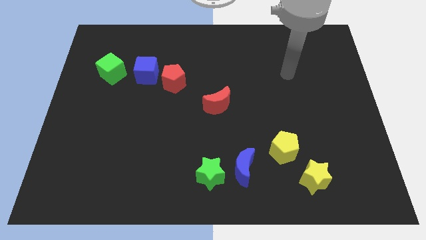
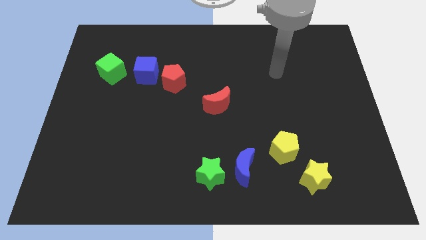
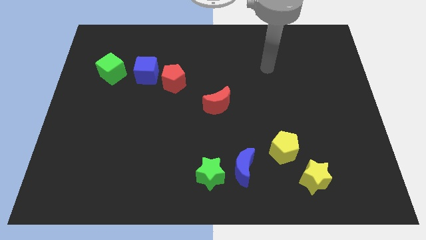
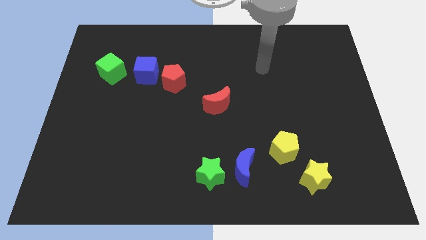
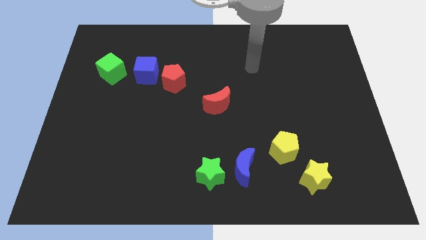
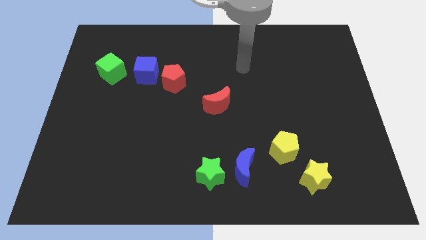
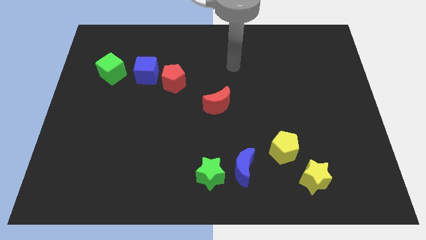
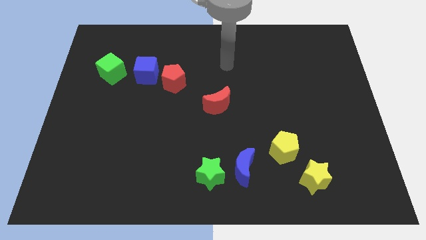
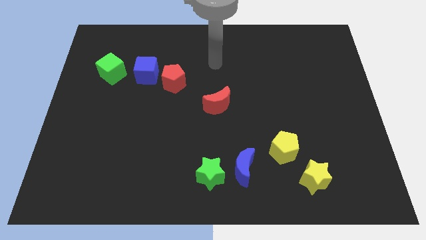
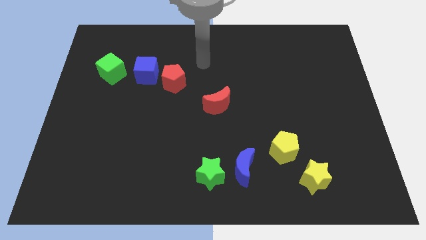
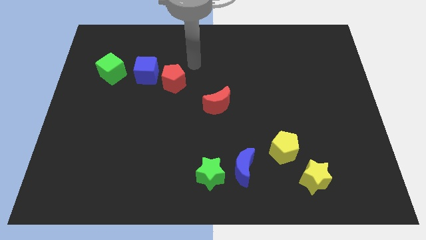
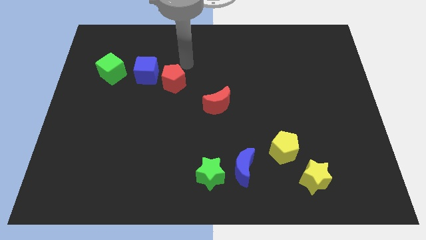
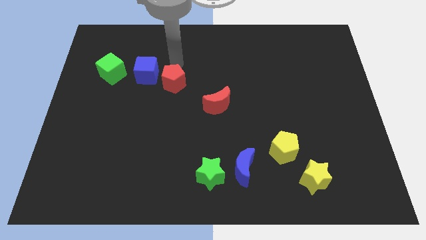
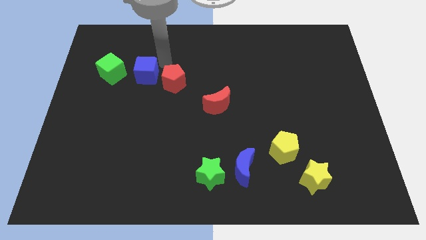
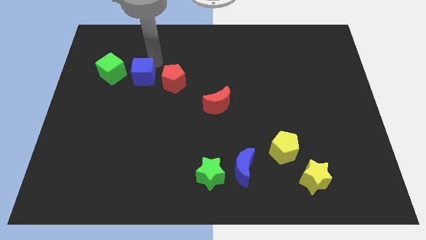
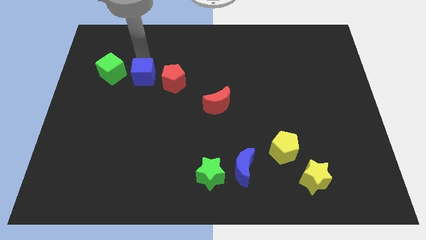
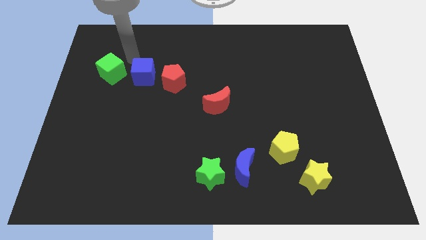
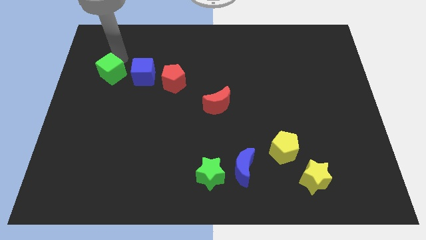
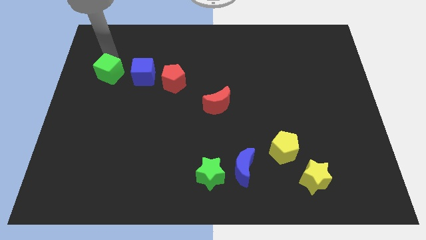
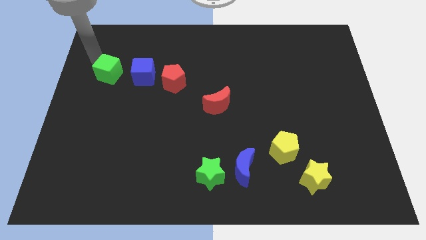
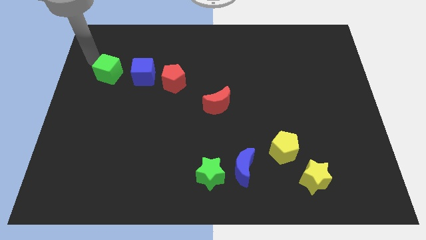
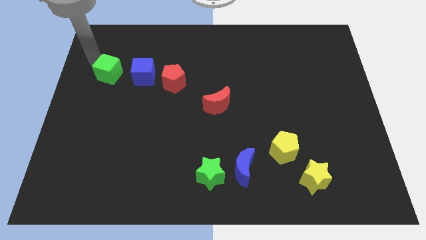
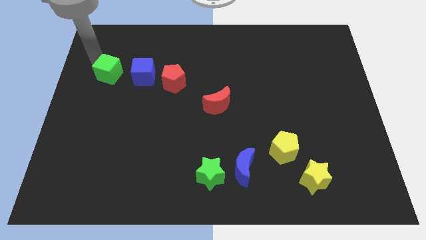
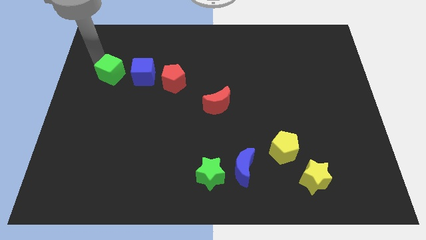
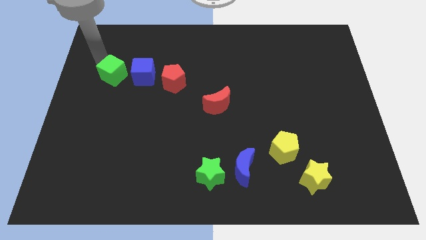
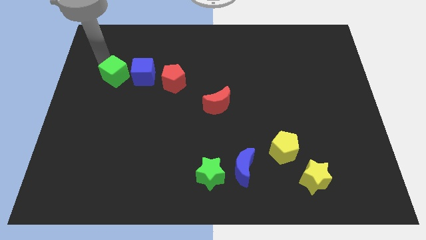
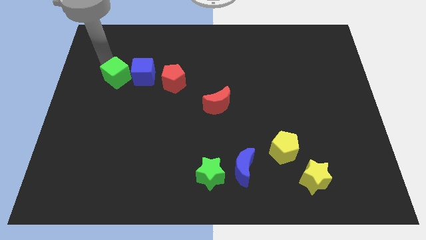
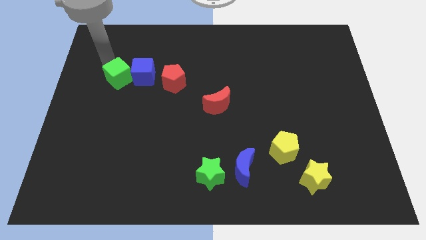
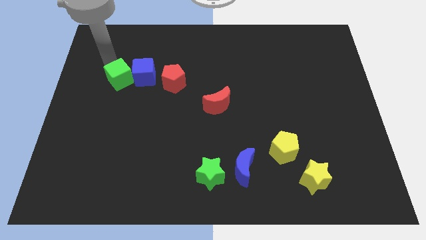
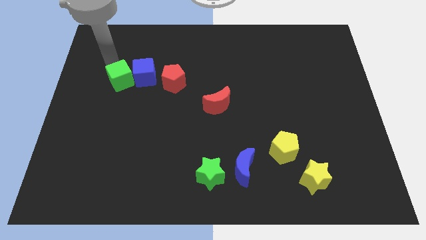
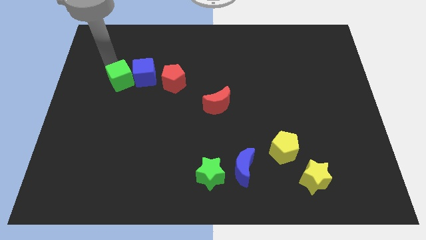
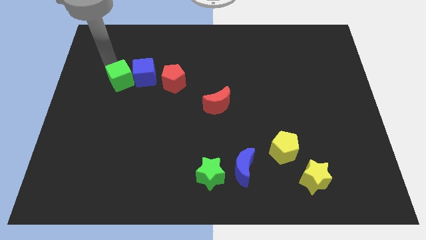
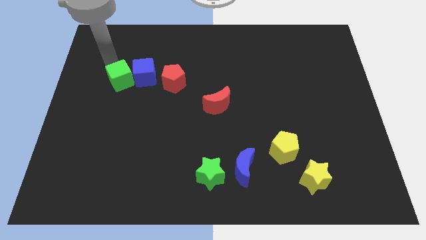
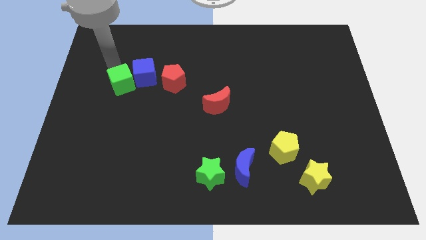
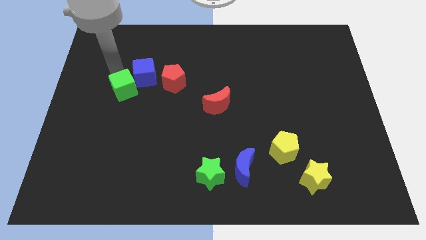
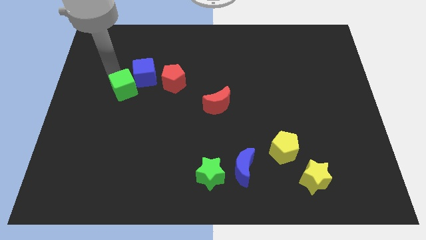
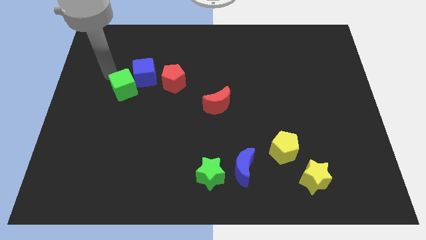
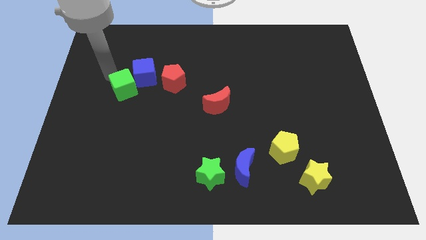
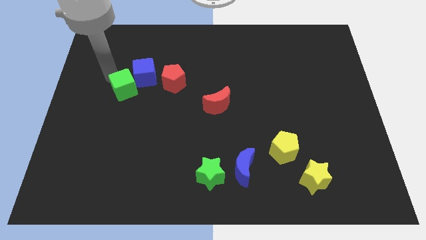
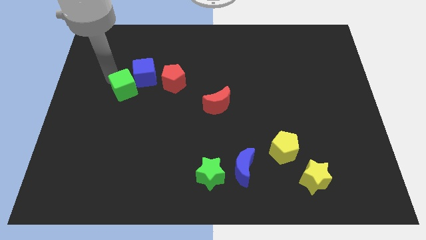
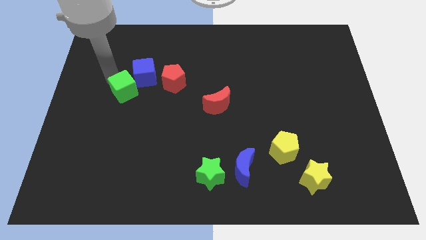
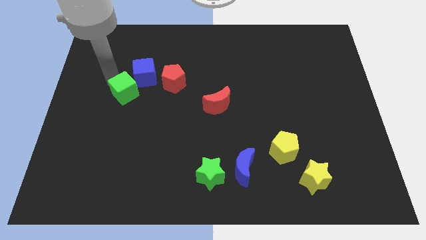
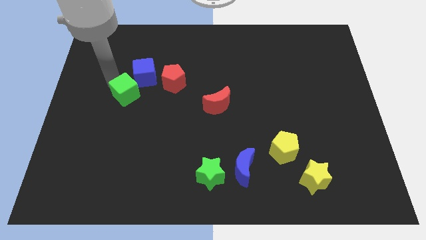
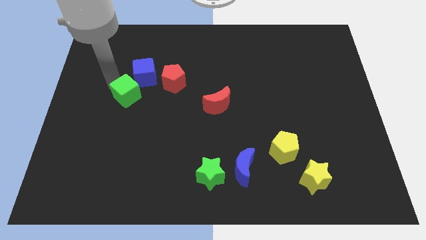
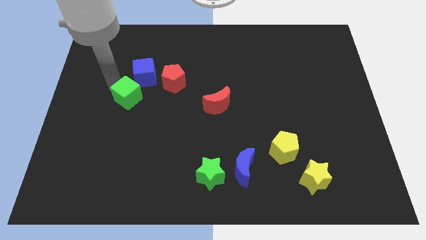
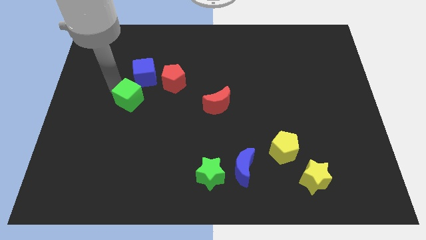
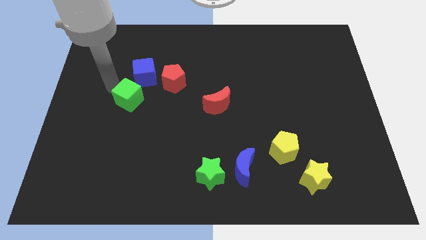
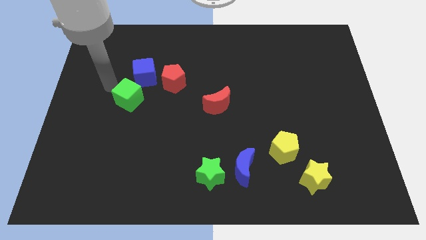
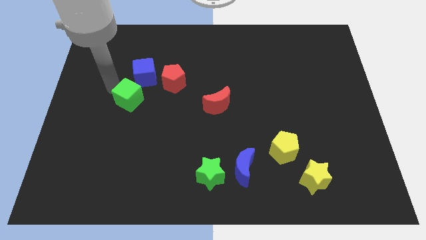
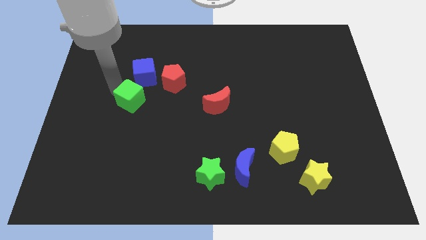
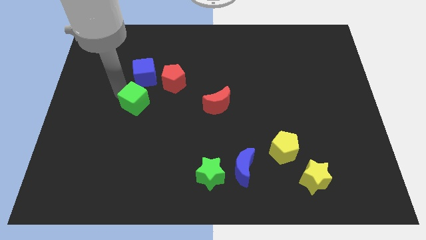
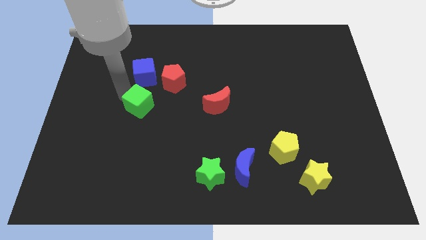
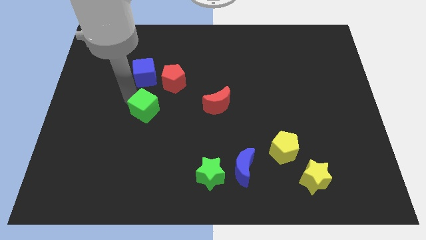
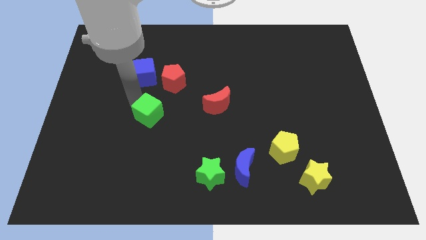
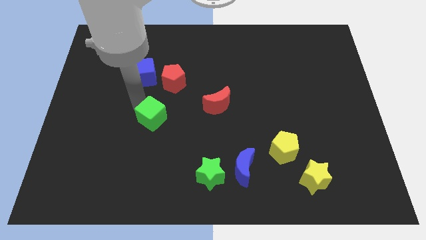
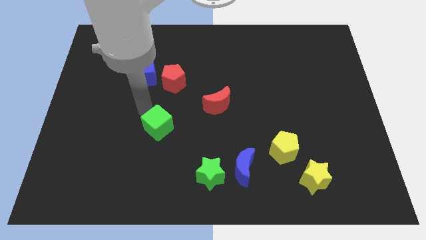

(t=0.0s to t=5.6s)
push the green cube down and to the right

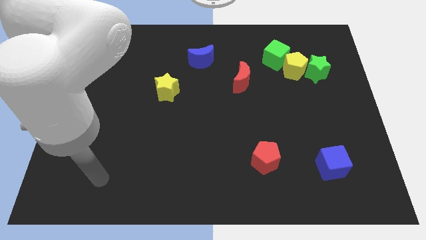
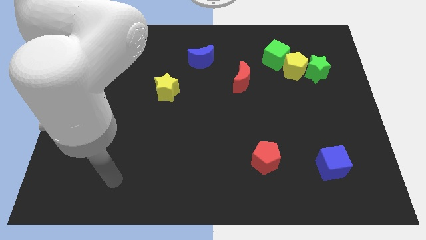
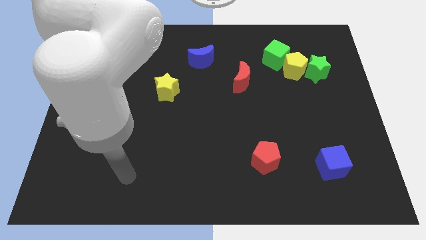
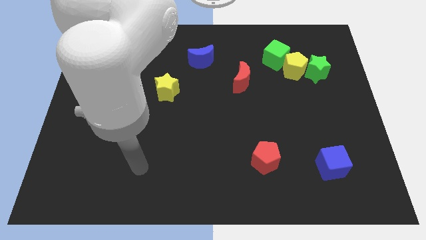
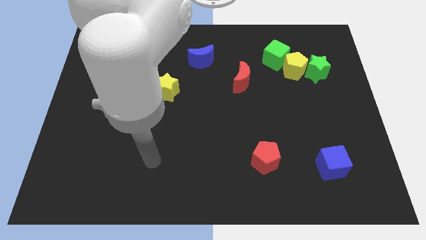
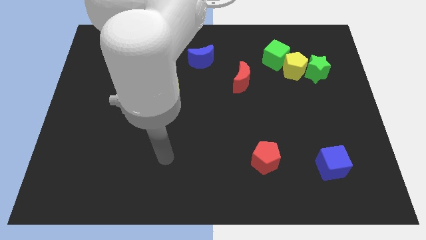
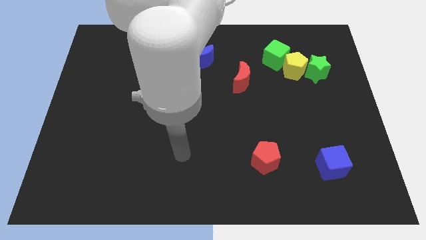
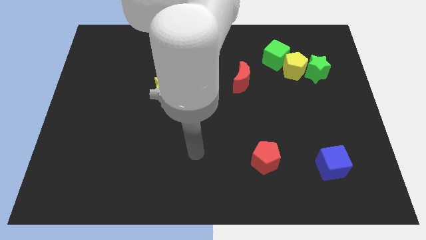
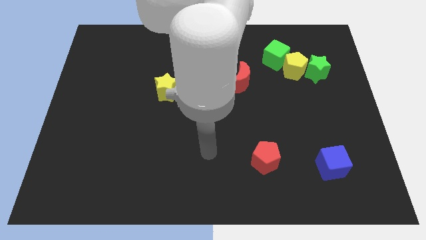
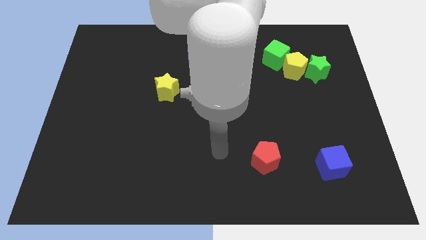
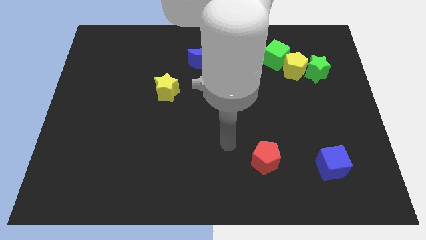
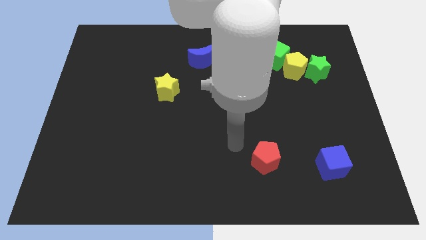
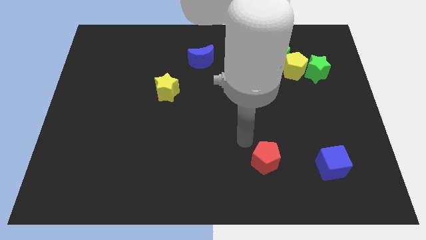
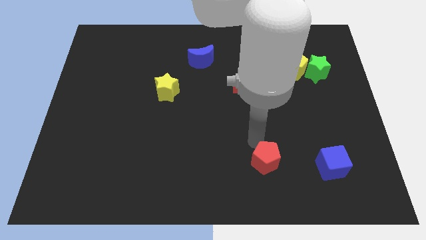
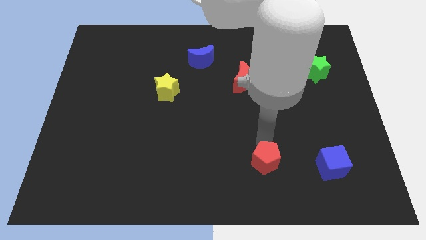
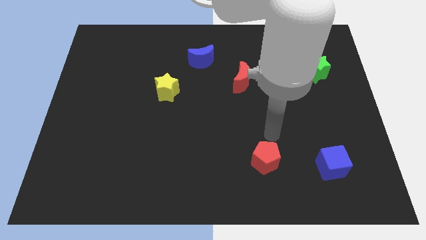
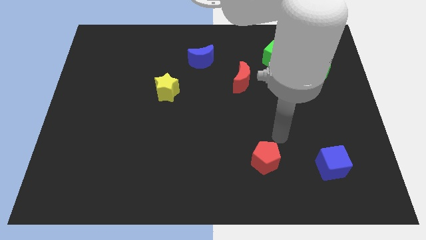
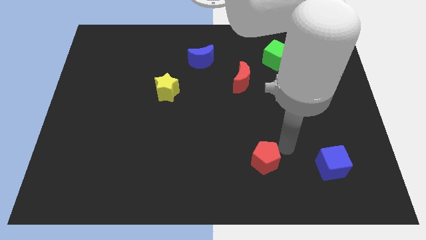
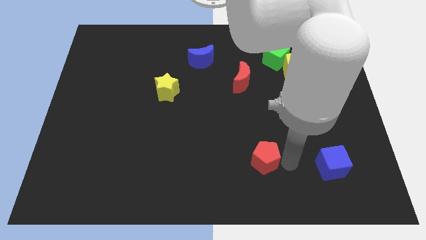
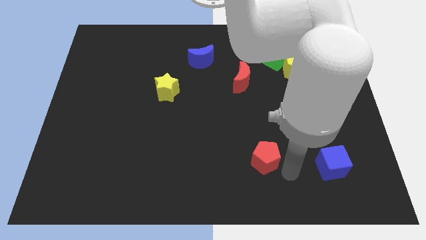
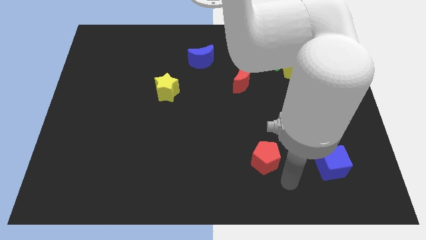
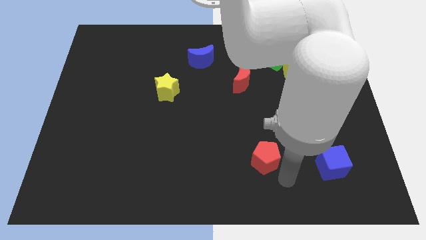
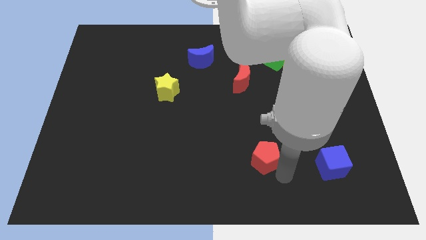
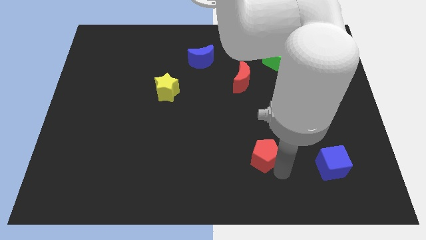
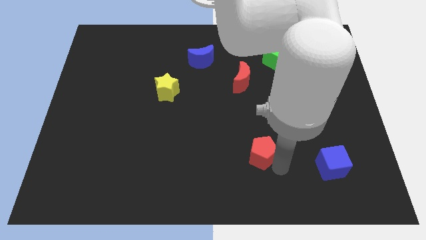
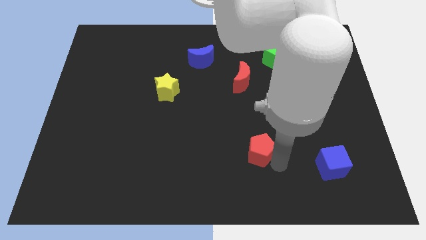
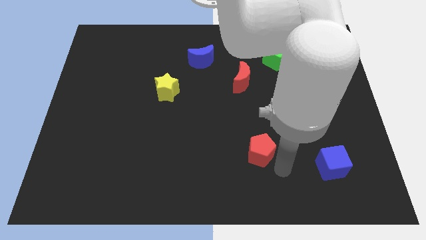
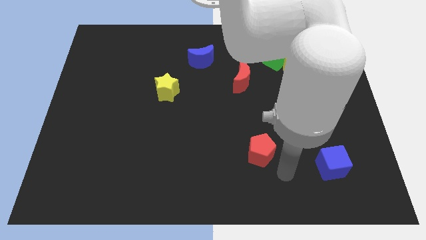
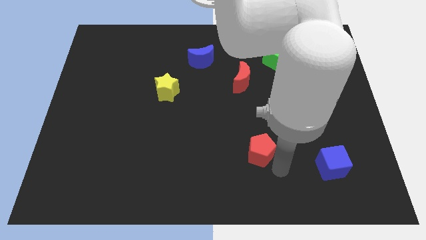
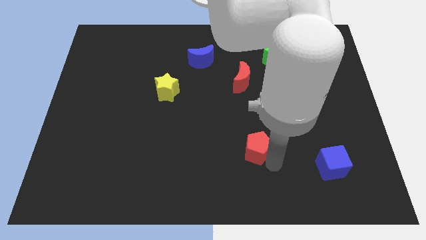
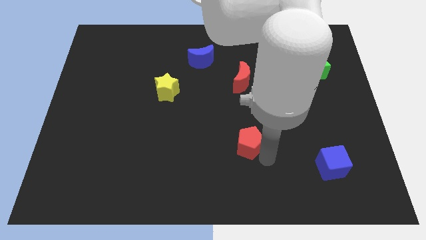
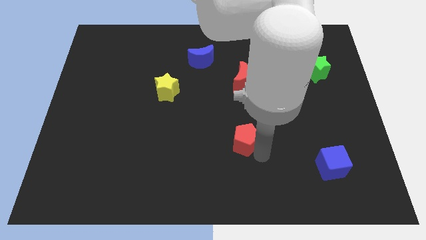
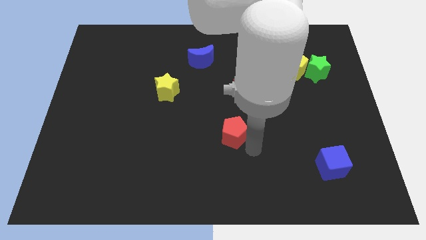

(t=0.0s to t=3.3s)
move the red pentagon upwards and then left a little
